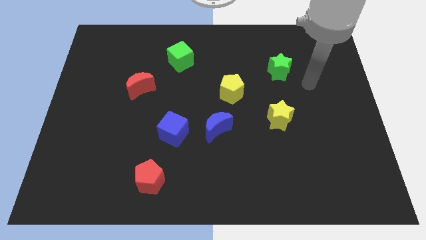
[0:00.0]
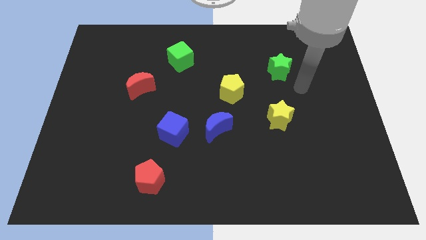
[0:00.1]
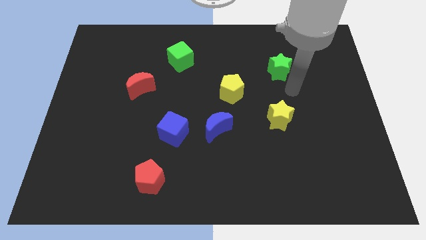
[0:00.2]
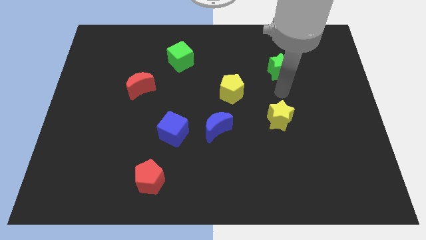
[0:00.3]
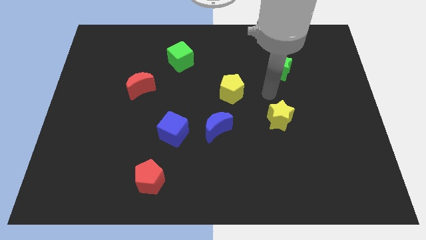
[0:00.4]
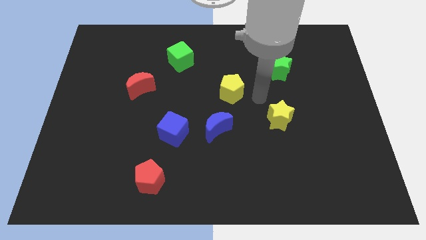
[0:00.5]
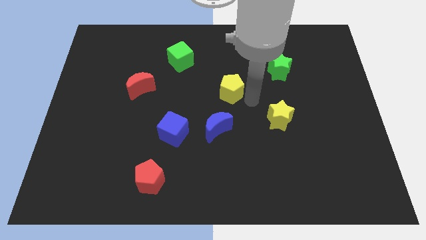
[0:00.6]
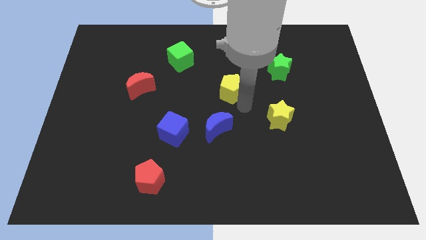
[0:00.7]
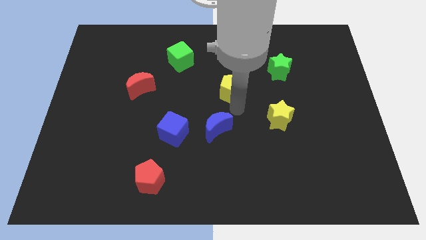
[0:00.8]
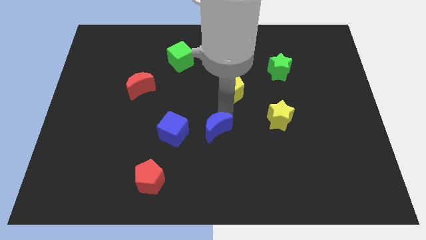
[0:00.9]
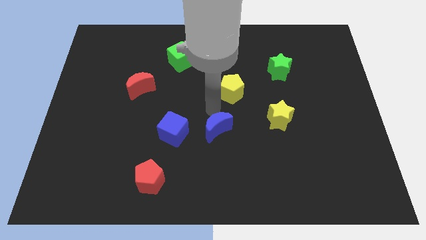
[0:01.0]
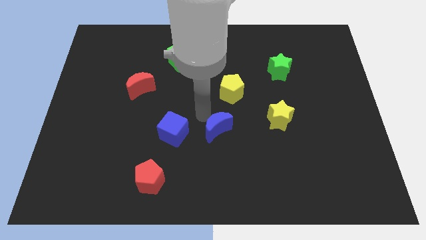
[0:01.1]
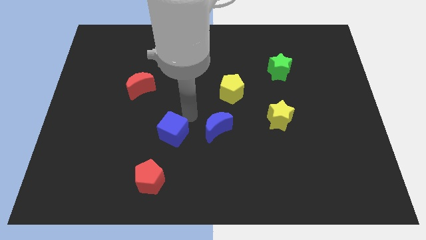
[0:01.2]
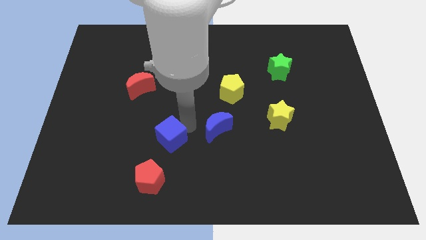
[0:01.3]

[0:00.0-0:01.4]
pull the blue moon apart from the blue cube

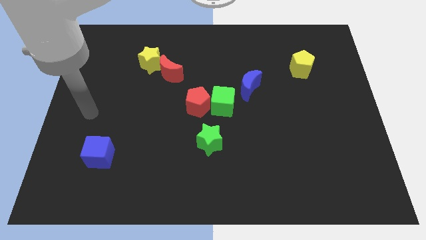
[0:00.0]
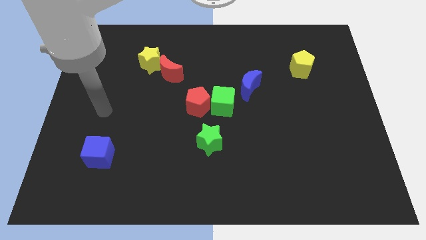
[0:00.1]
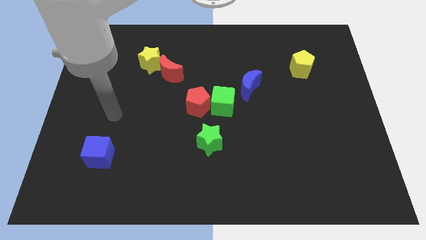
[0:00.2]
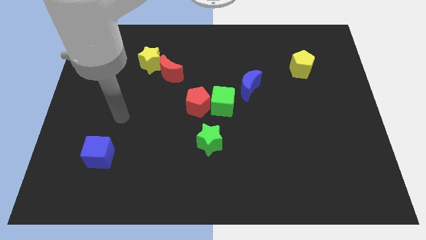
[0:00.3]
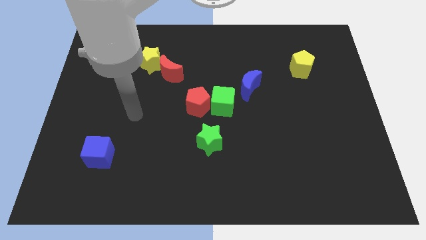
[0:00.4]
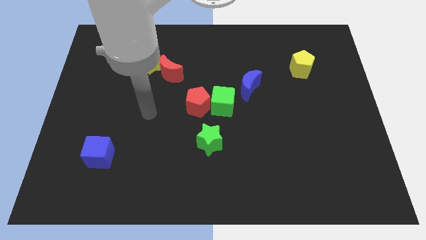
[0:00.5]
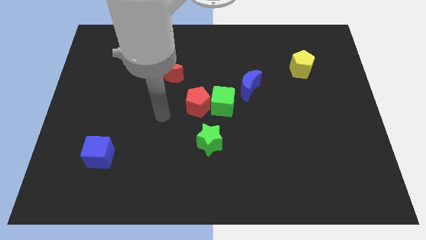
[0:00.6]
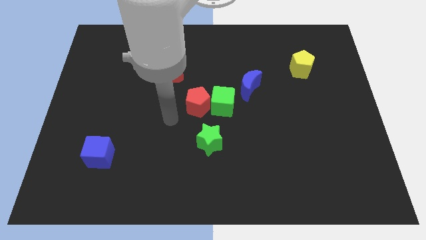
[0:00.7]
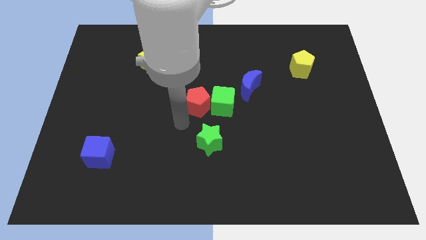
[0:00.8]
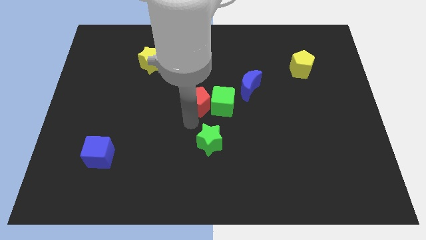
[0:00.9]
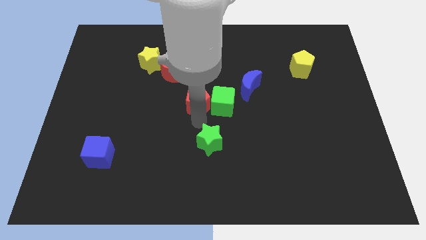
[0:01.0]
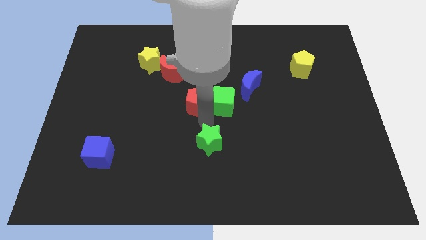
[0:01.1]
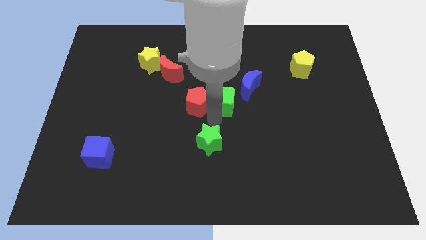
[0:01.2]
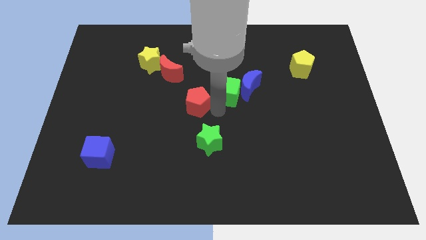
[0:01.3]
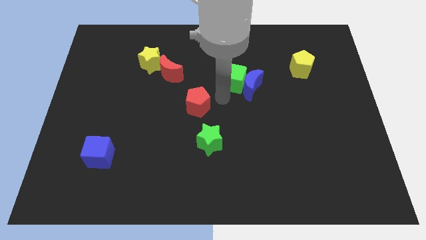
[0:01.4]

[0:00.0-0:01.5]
separate the red pentagon from the green cube

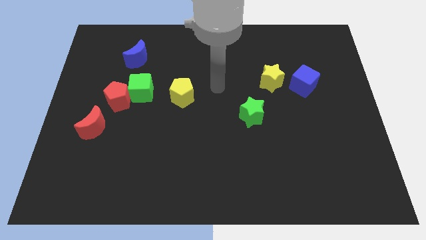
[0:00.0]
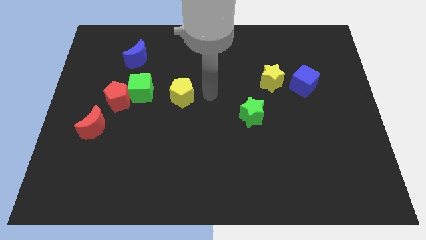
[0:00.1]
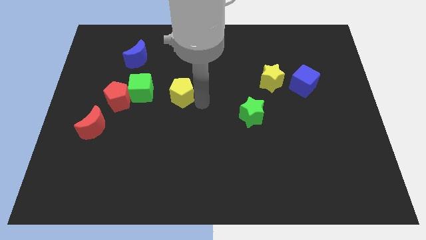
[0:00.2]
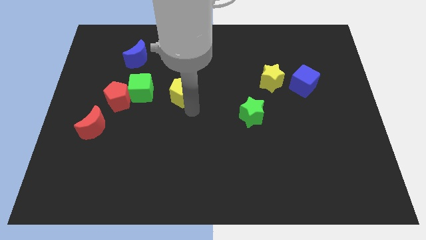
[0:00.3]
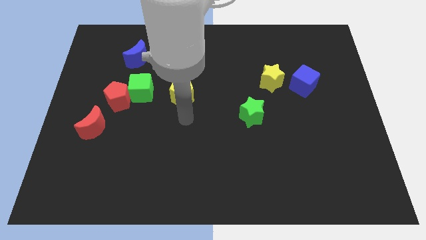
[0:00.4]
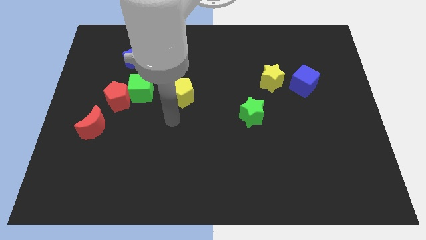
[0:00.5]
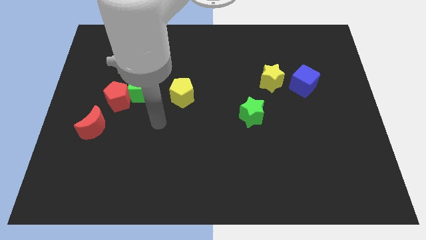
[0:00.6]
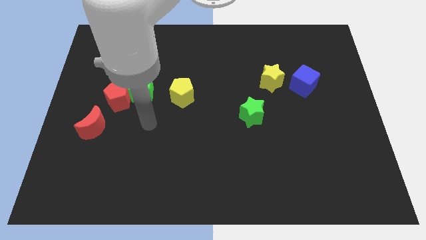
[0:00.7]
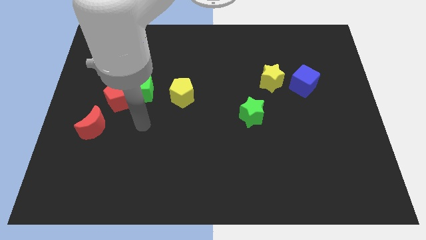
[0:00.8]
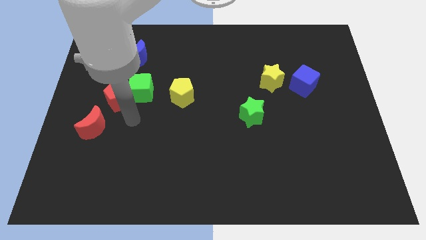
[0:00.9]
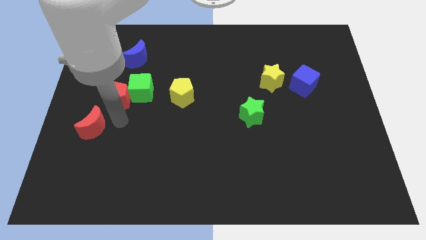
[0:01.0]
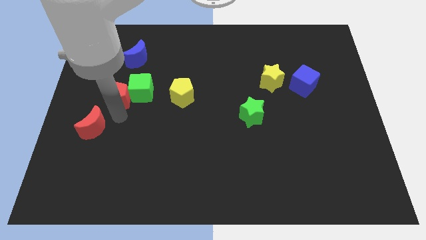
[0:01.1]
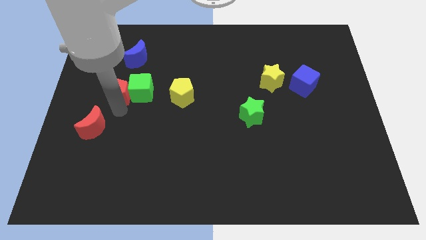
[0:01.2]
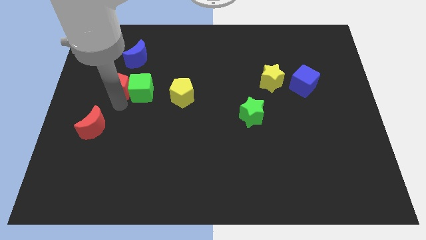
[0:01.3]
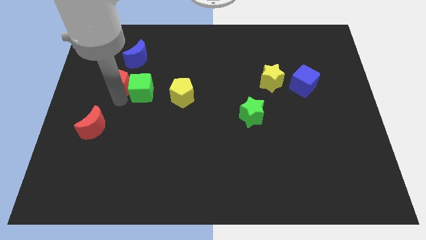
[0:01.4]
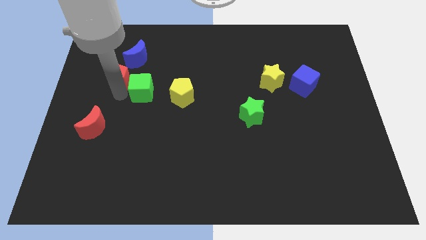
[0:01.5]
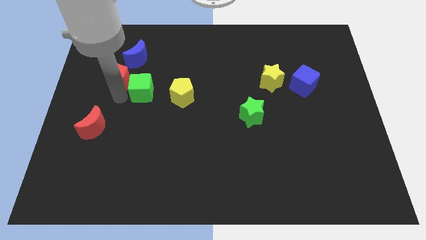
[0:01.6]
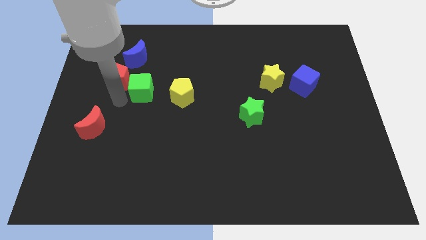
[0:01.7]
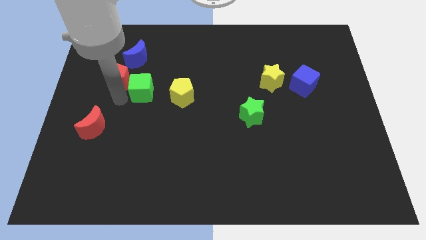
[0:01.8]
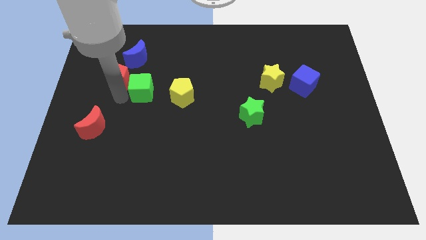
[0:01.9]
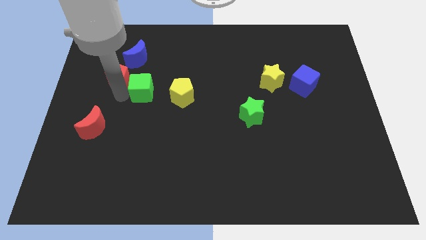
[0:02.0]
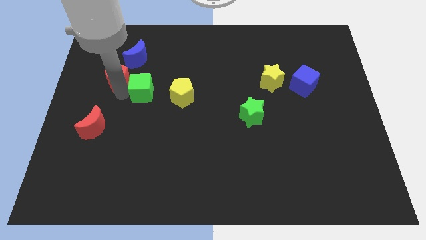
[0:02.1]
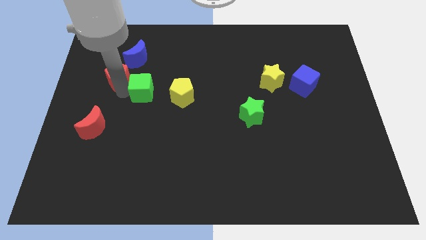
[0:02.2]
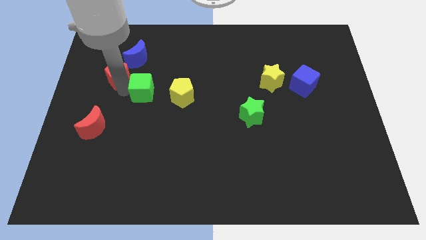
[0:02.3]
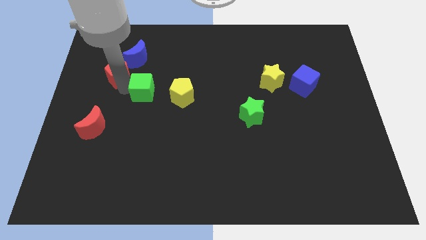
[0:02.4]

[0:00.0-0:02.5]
pull the red pentagon apart from the green cube and red moon

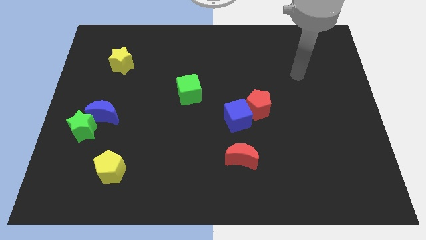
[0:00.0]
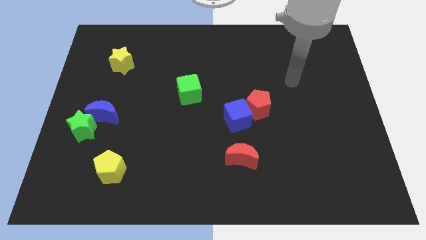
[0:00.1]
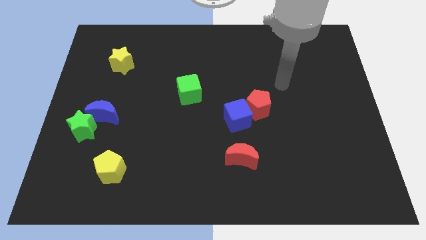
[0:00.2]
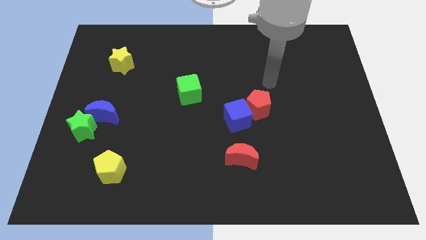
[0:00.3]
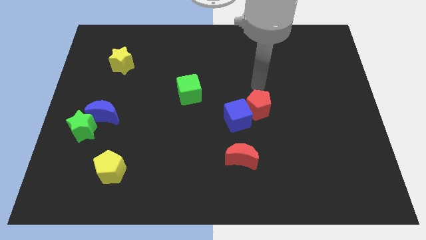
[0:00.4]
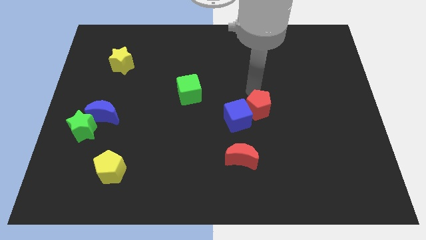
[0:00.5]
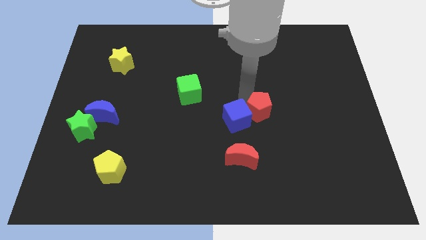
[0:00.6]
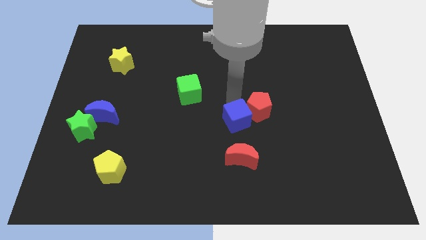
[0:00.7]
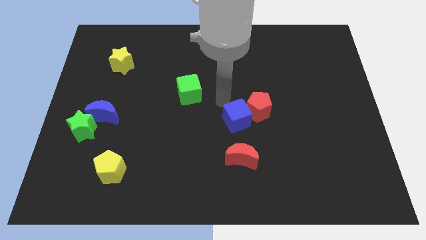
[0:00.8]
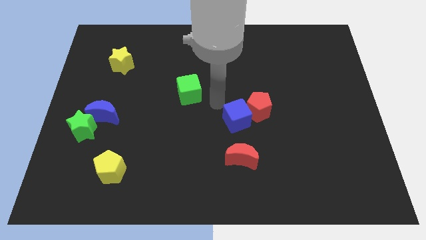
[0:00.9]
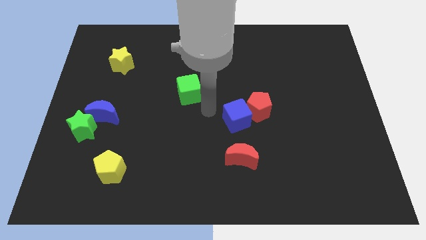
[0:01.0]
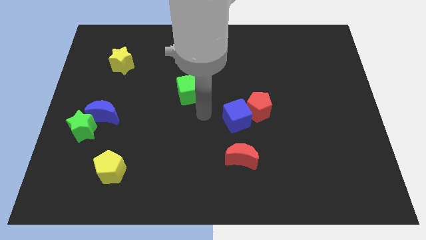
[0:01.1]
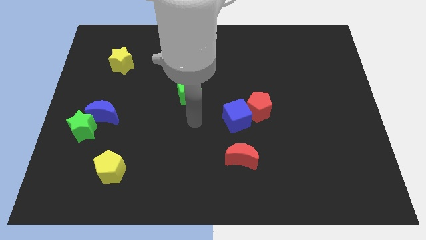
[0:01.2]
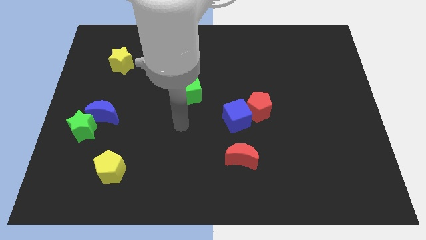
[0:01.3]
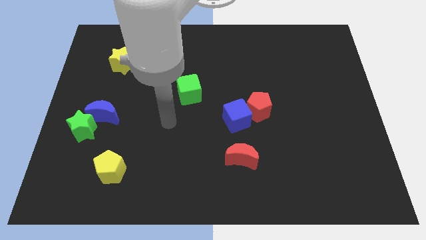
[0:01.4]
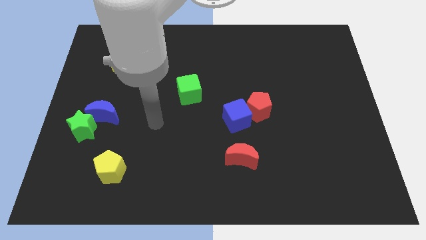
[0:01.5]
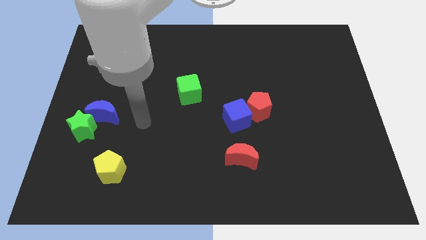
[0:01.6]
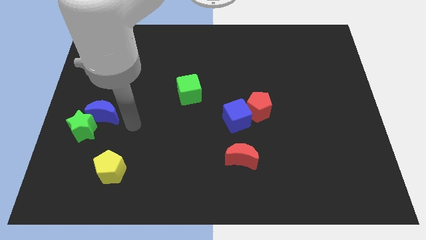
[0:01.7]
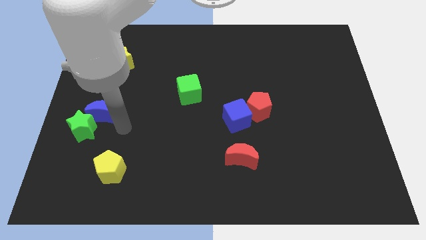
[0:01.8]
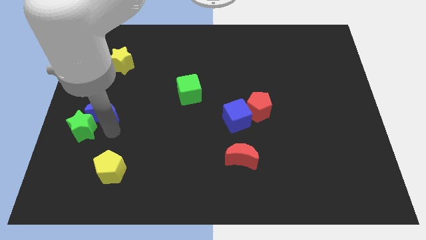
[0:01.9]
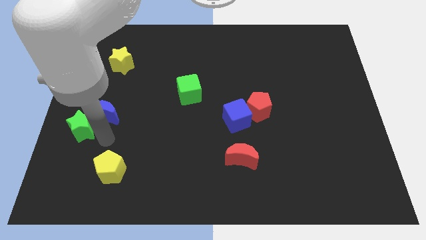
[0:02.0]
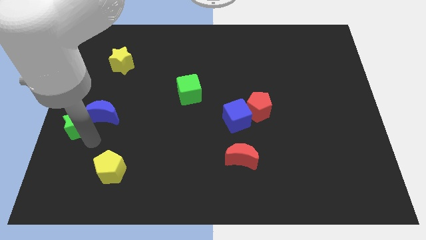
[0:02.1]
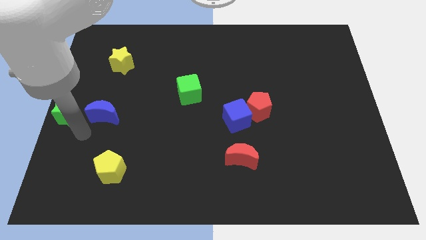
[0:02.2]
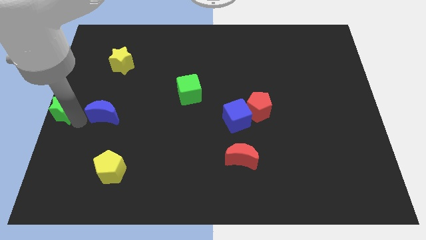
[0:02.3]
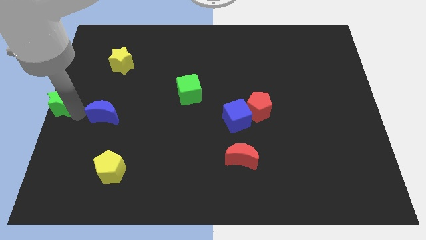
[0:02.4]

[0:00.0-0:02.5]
move the blue moon away from the green star

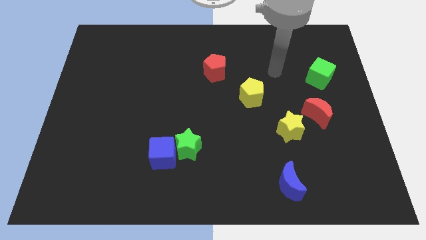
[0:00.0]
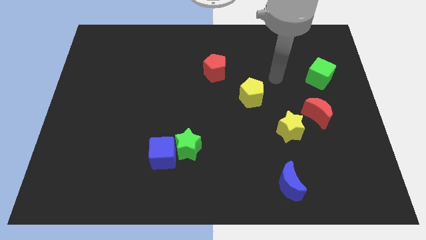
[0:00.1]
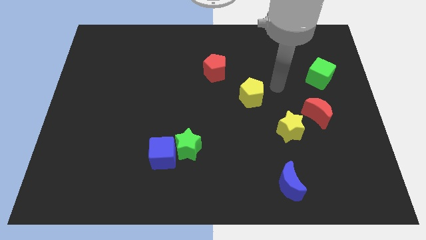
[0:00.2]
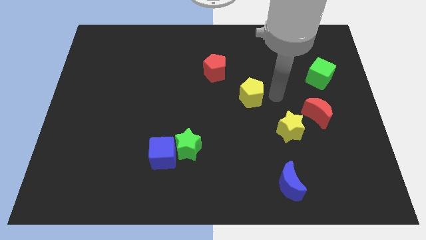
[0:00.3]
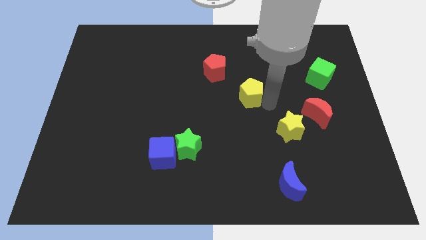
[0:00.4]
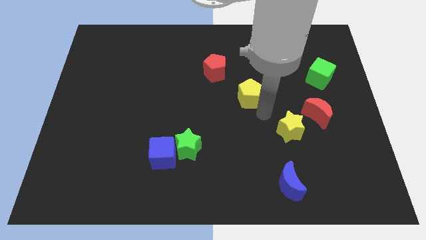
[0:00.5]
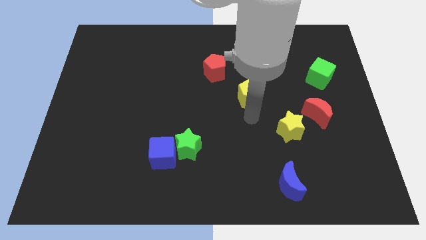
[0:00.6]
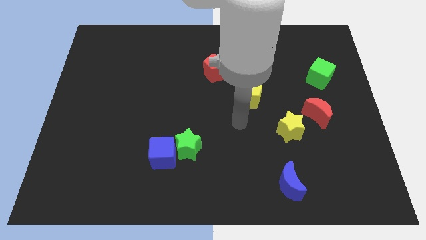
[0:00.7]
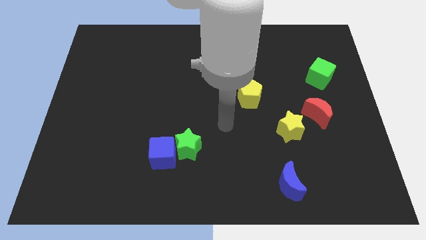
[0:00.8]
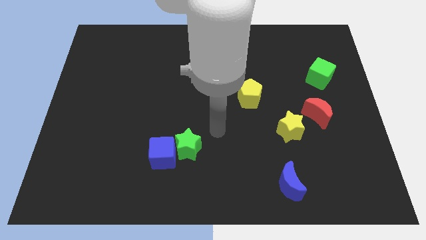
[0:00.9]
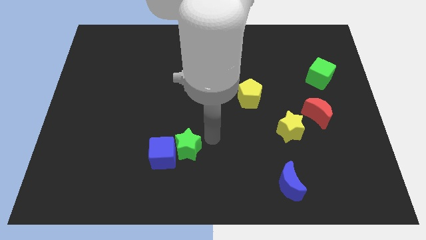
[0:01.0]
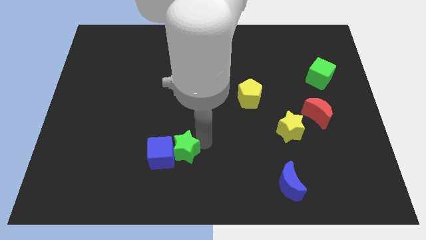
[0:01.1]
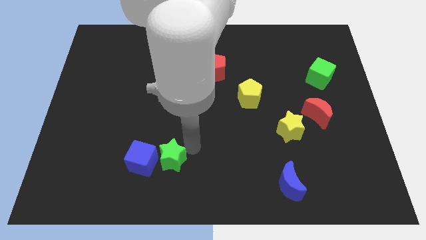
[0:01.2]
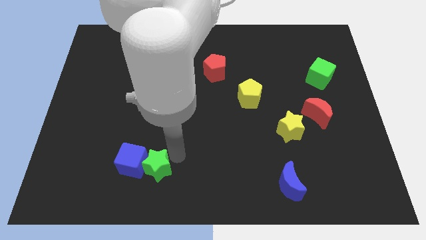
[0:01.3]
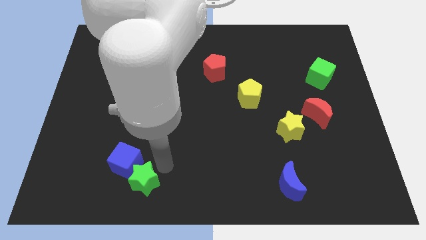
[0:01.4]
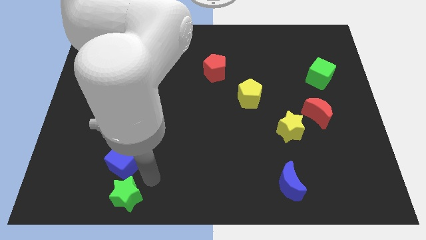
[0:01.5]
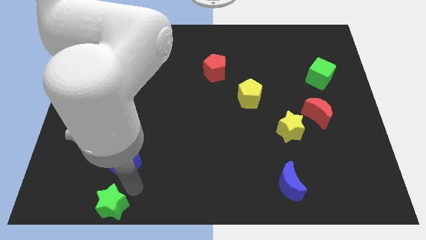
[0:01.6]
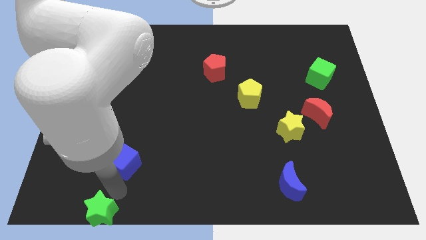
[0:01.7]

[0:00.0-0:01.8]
move the blue cube away from the green star
